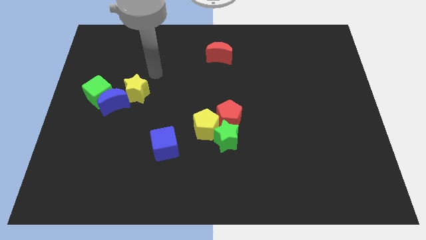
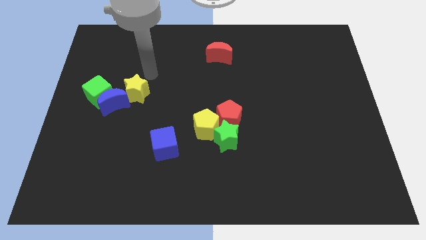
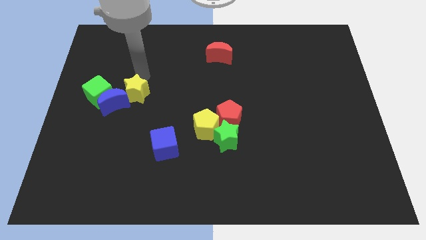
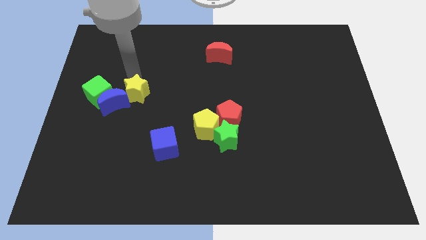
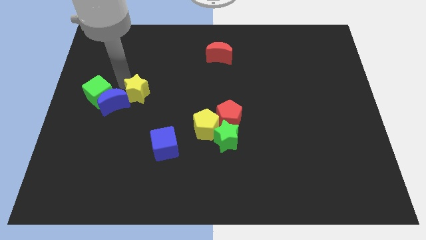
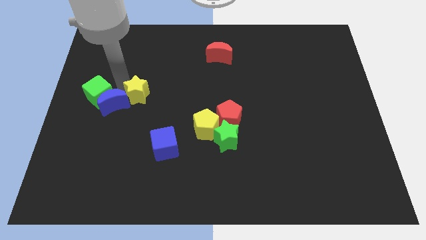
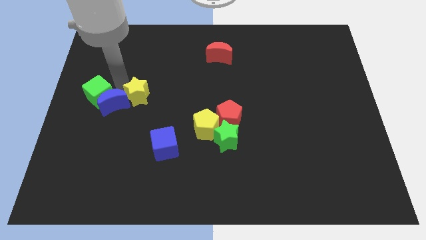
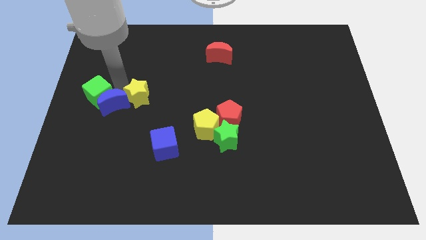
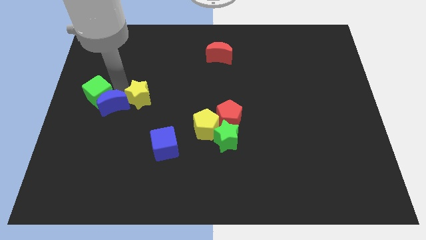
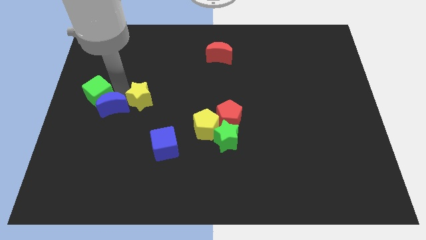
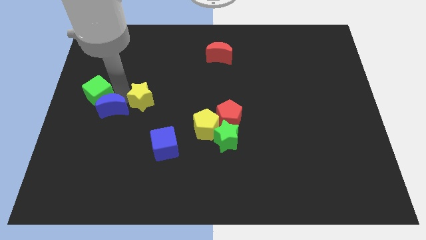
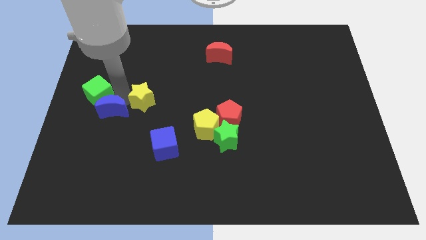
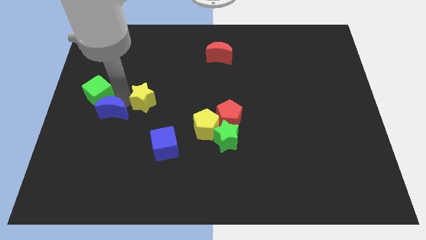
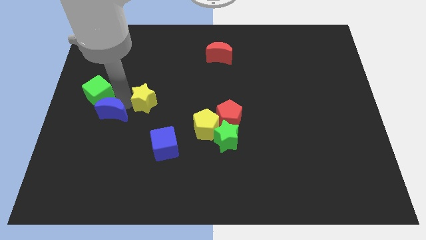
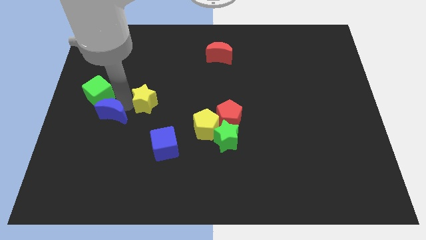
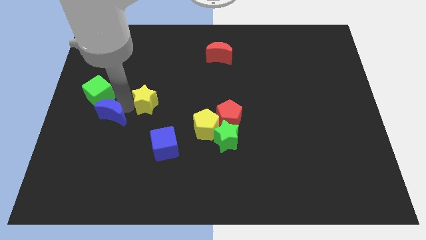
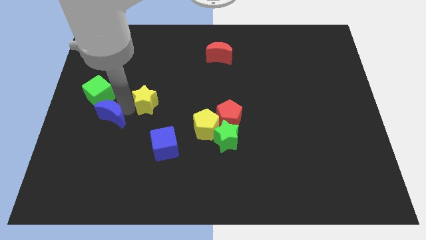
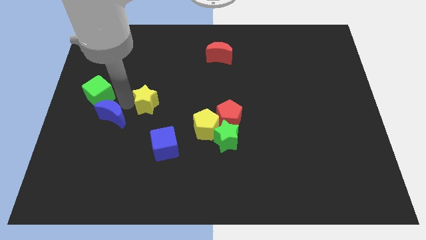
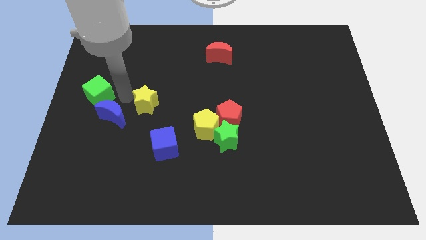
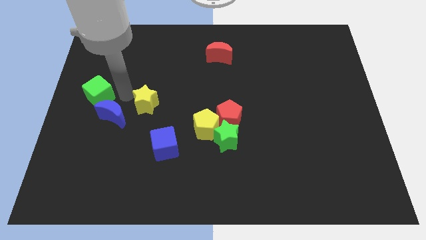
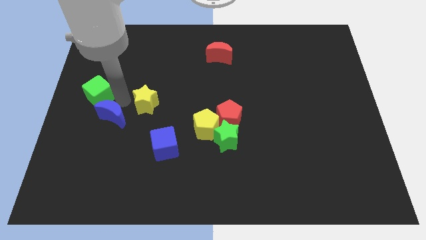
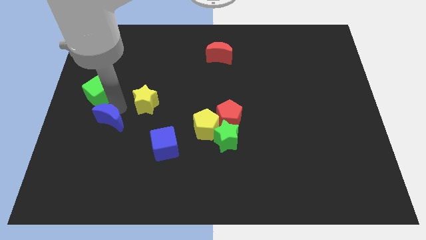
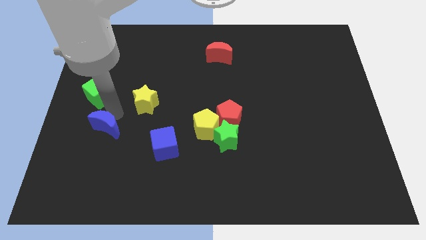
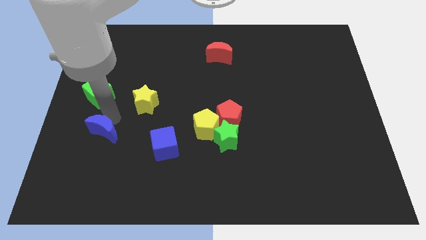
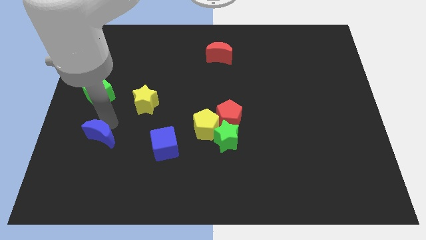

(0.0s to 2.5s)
move the blue moon away from the green cube and yellow star

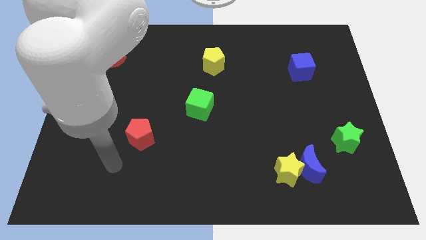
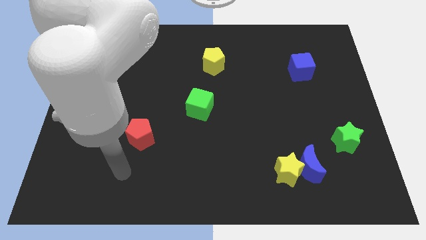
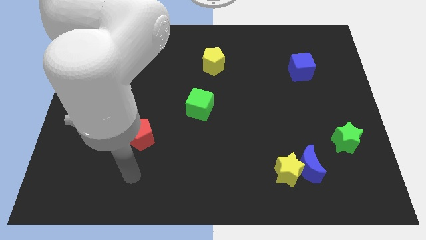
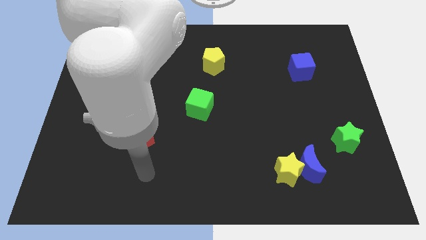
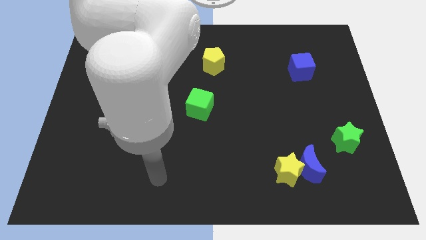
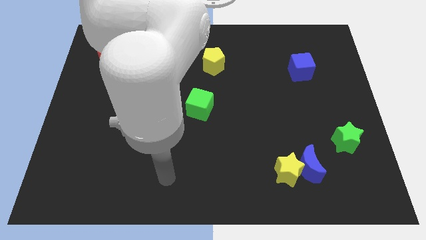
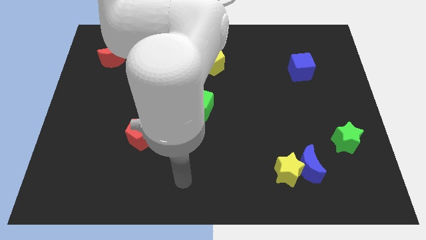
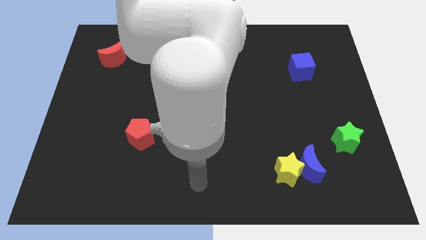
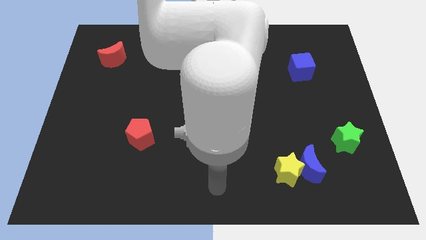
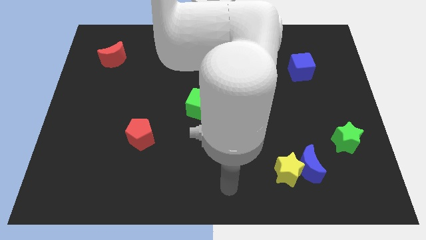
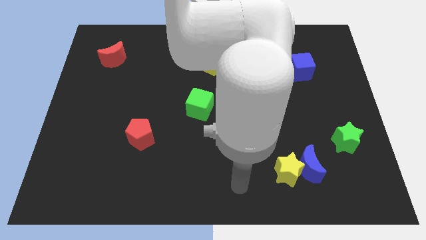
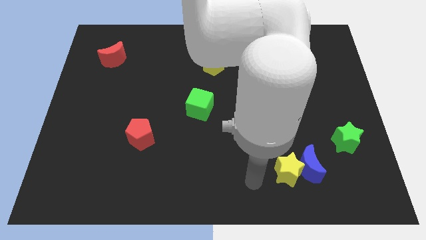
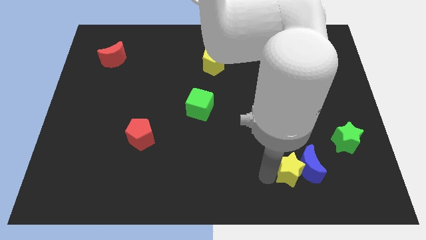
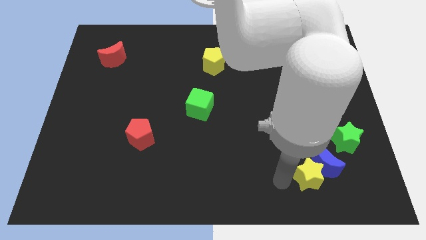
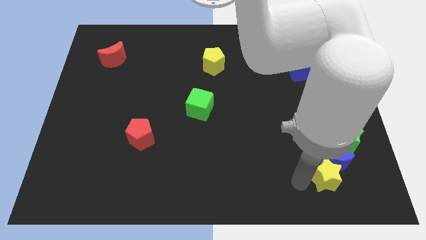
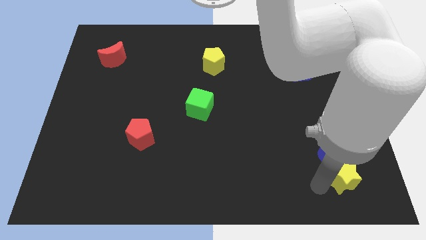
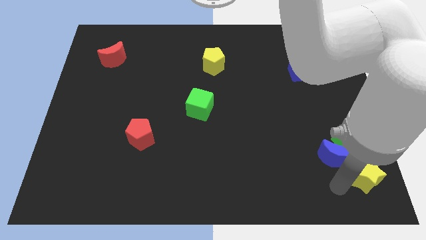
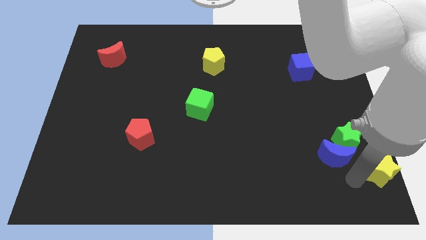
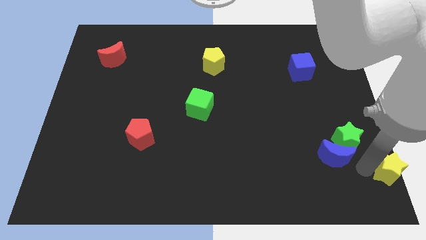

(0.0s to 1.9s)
move the blue moon away from the yellow star

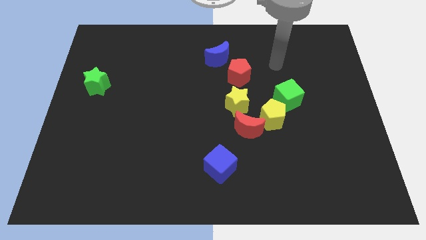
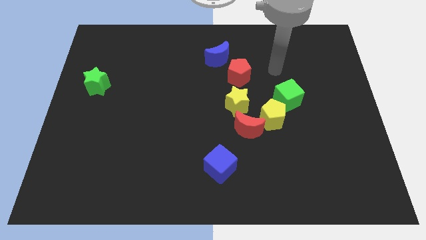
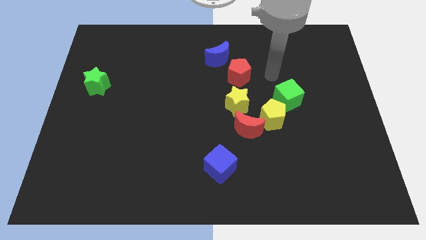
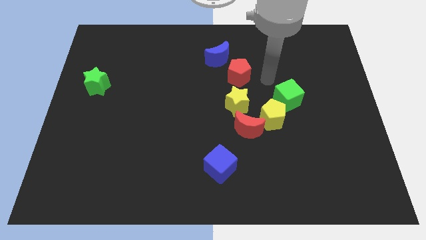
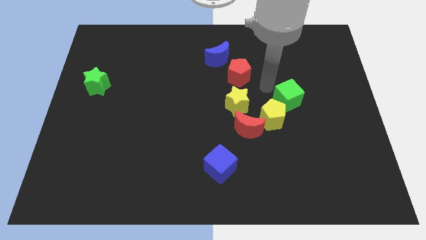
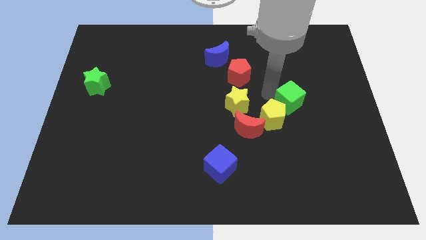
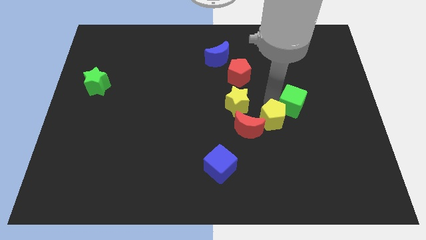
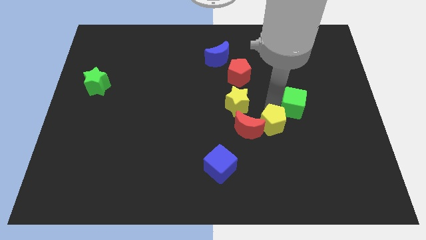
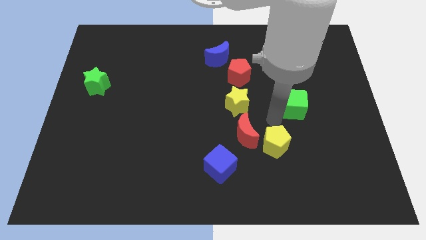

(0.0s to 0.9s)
pull the green cube apart from the yellow pentagon

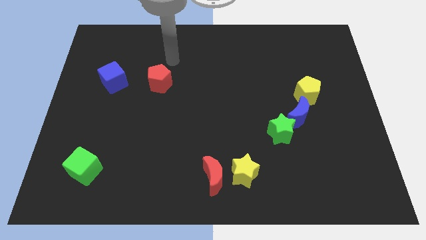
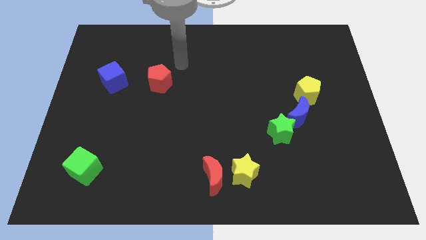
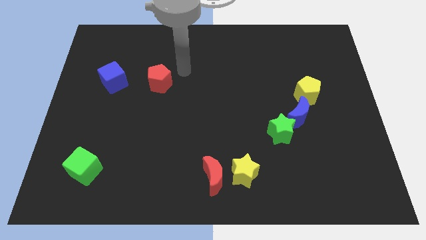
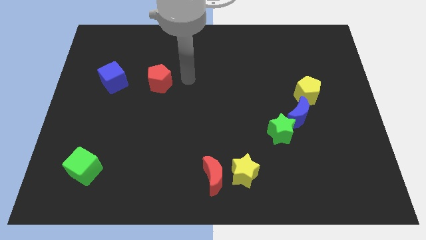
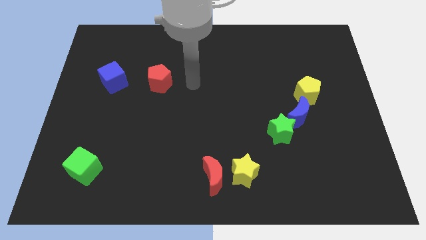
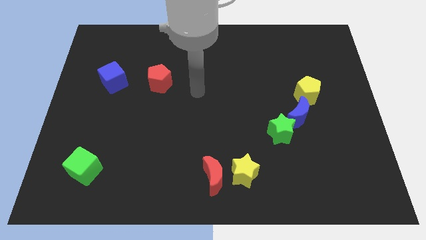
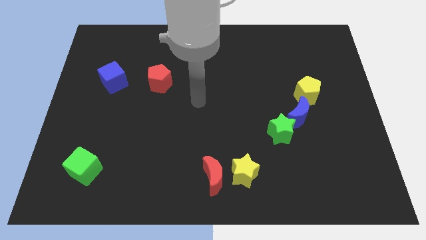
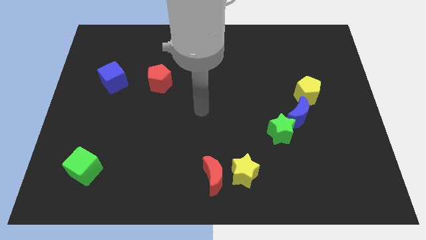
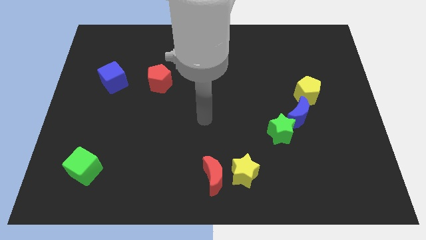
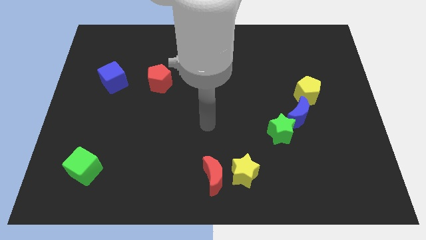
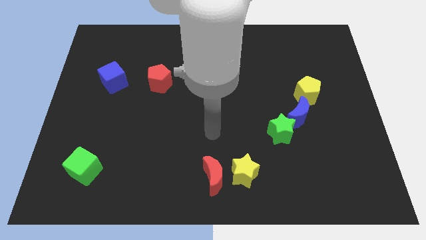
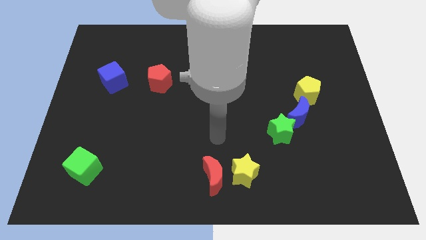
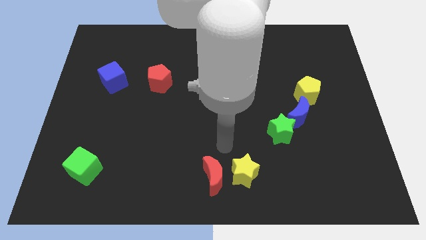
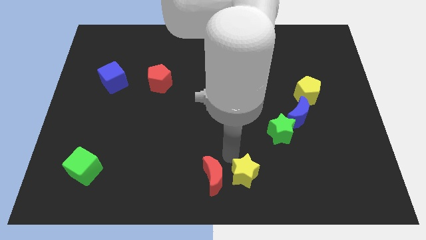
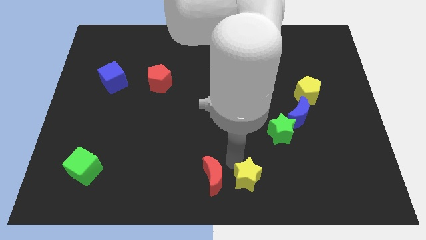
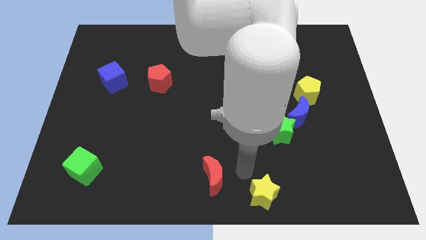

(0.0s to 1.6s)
move the red moon away from the yellow star

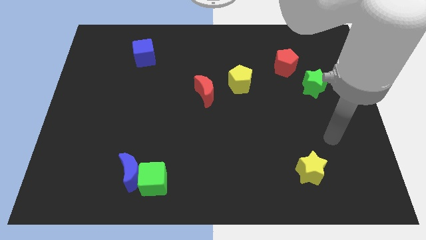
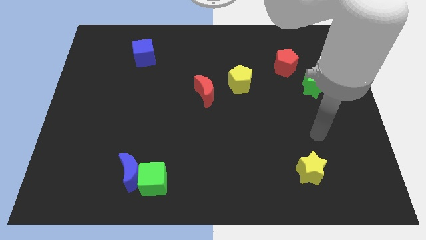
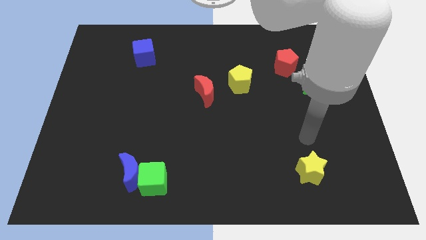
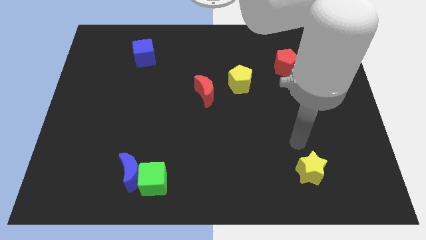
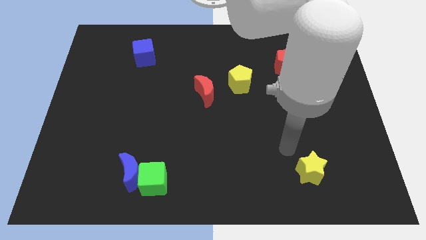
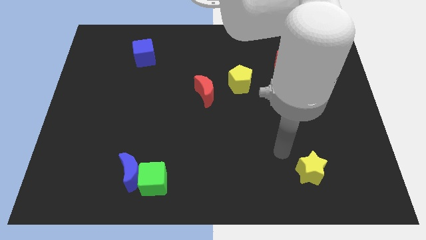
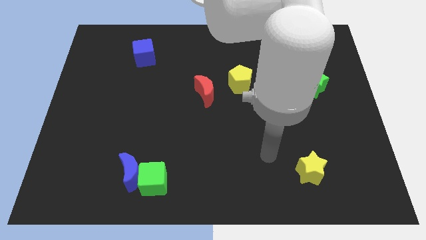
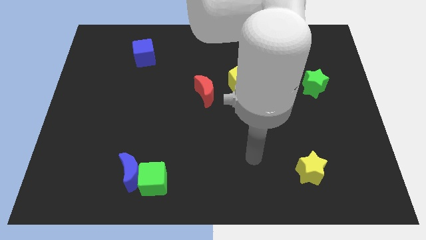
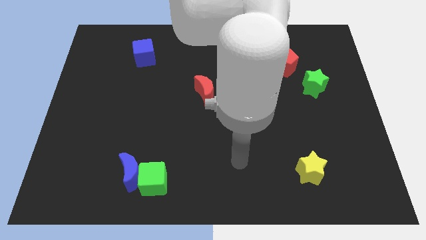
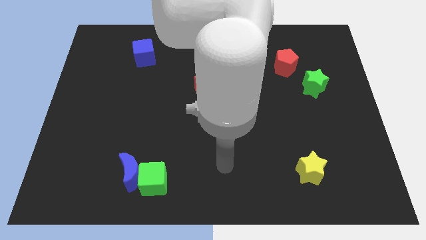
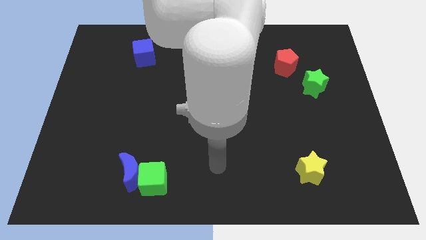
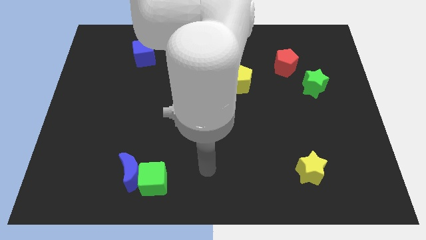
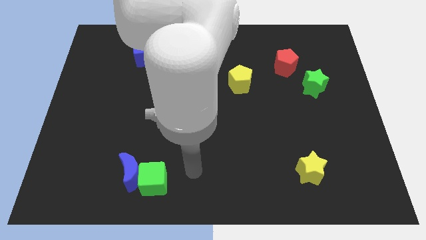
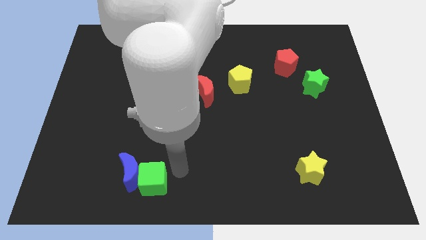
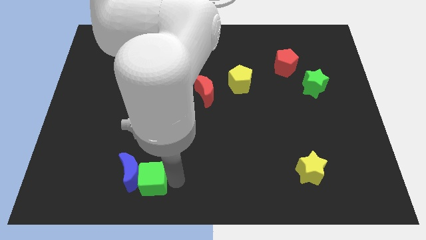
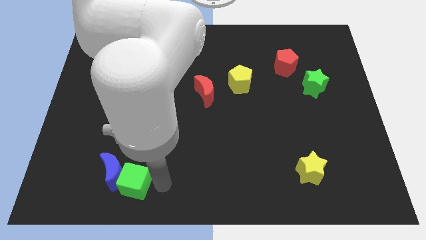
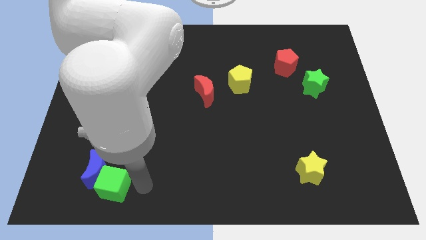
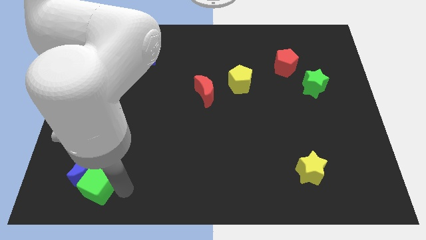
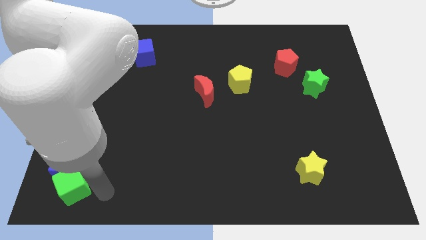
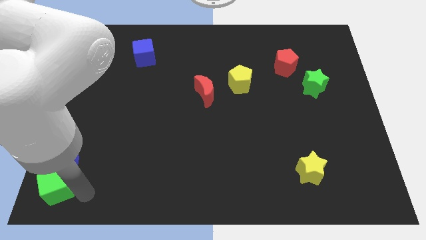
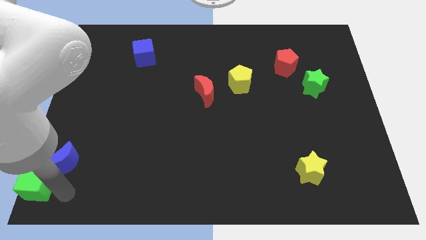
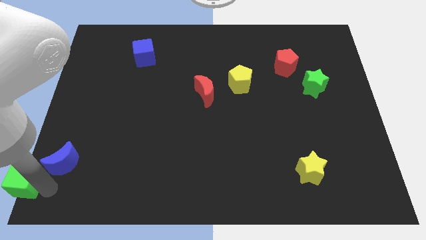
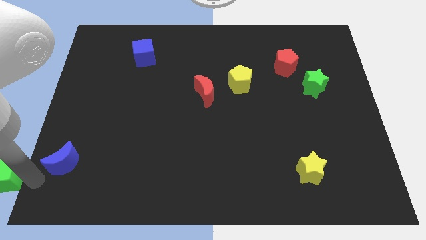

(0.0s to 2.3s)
pull the blue moon apart from the green cube

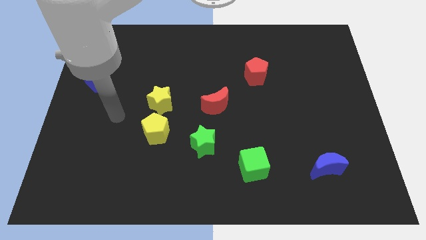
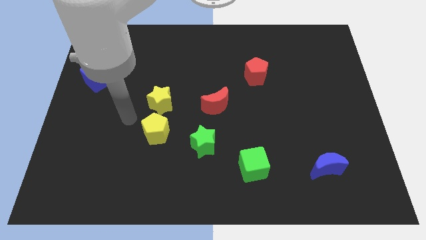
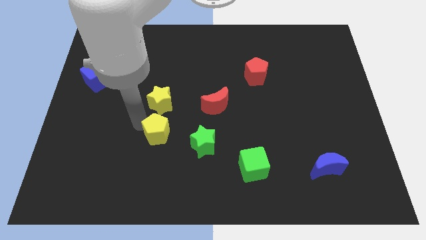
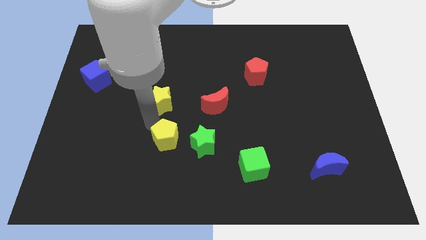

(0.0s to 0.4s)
separate the yellow star from the yellow pentagon
